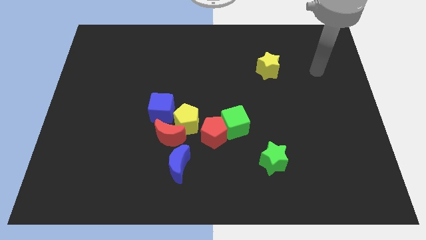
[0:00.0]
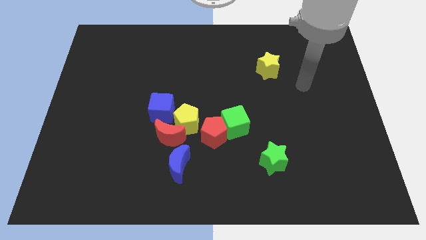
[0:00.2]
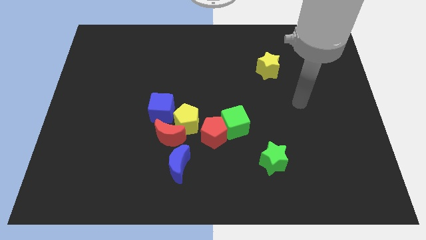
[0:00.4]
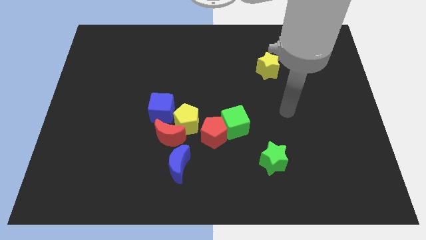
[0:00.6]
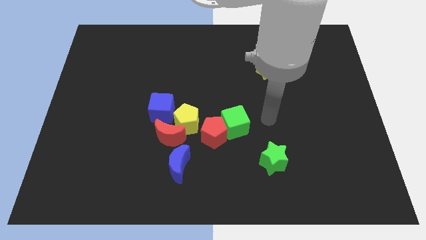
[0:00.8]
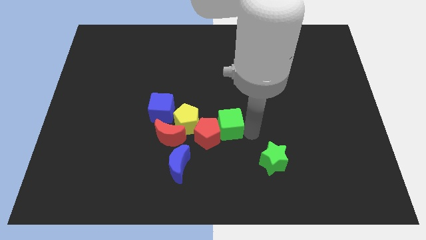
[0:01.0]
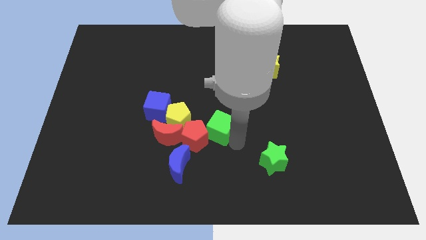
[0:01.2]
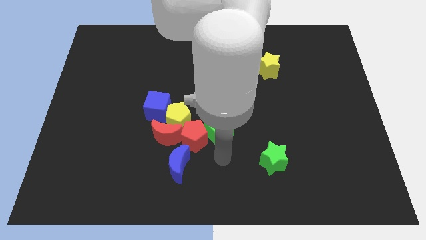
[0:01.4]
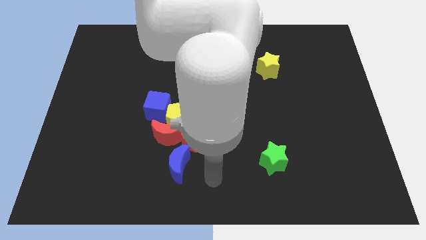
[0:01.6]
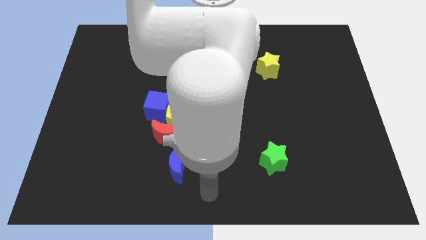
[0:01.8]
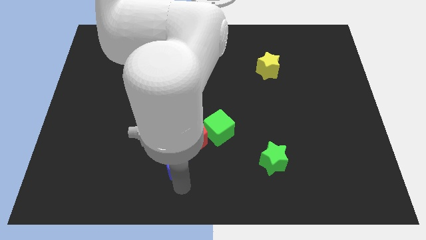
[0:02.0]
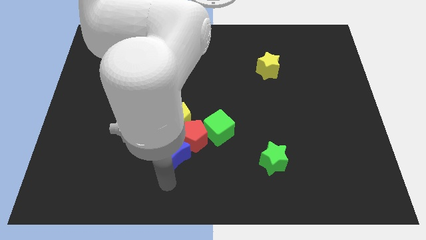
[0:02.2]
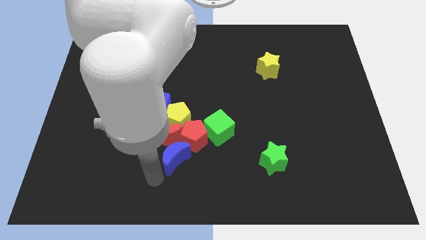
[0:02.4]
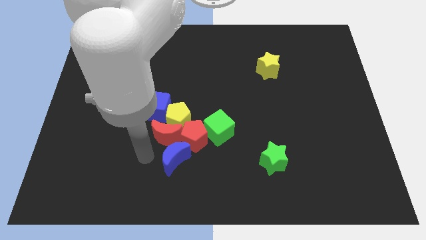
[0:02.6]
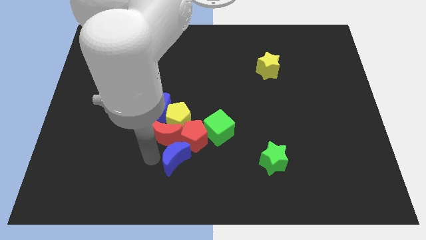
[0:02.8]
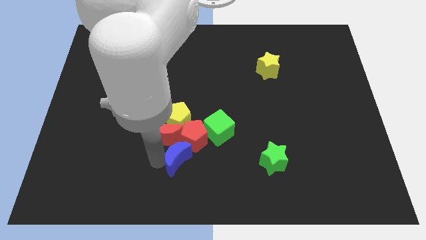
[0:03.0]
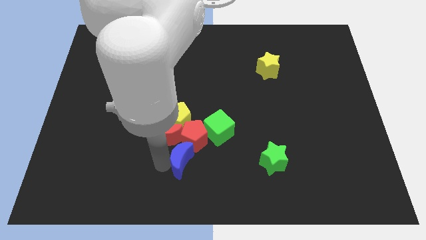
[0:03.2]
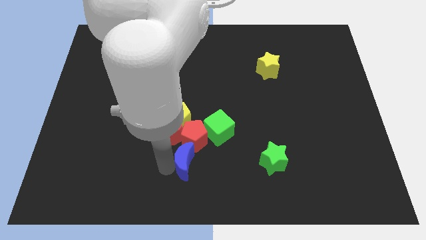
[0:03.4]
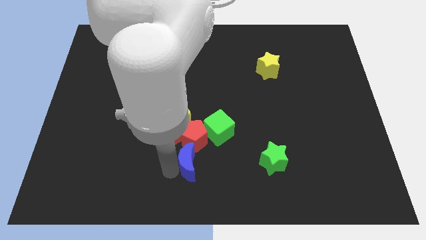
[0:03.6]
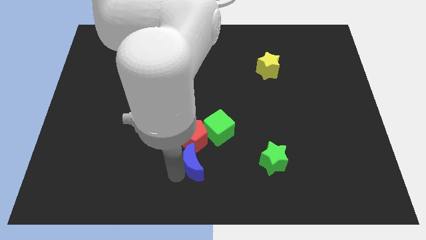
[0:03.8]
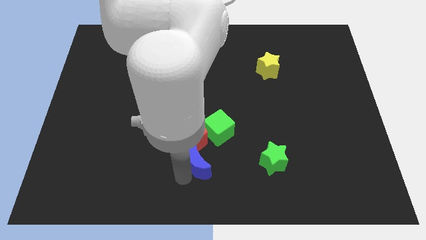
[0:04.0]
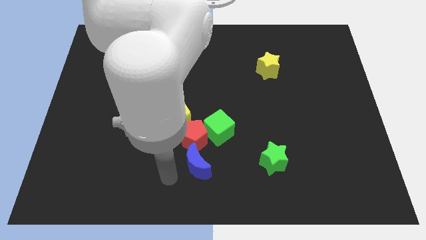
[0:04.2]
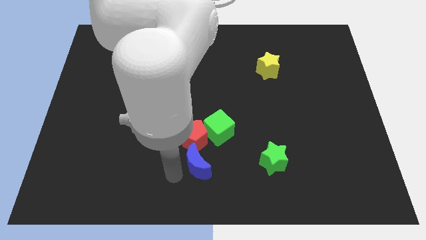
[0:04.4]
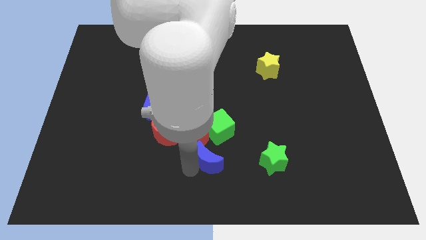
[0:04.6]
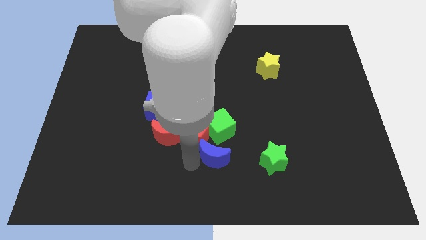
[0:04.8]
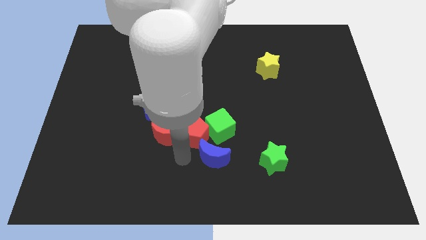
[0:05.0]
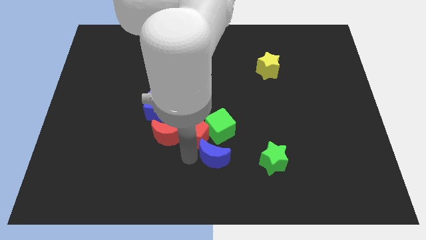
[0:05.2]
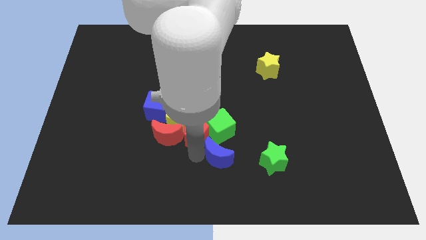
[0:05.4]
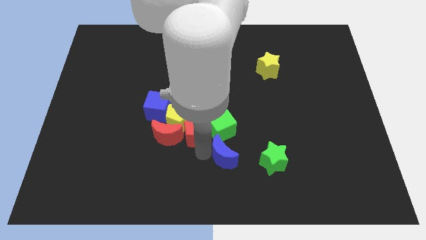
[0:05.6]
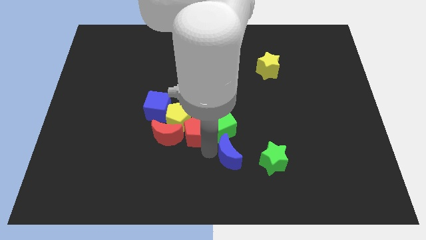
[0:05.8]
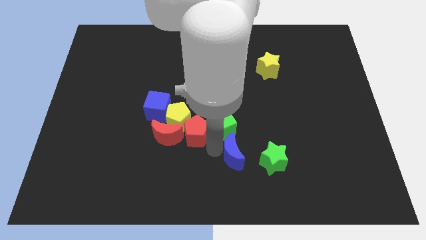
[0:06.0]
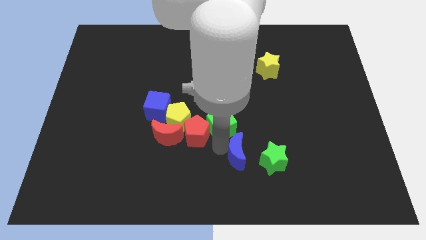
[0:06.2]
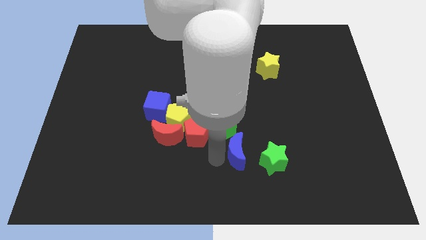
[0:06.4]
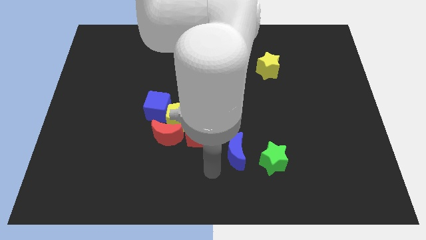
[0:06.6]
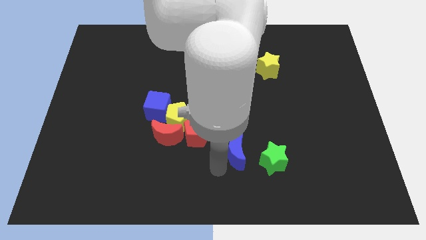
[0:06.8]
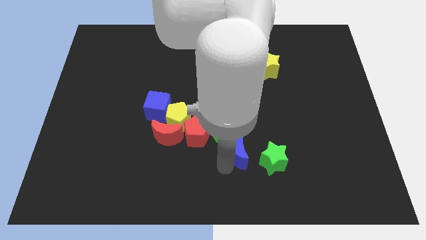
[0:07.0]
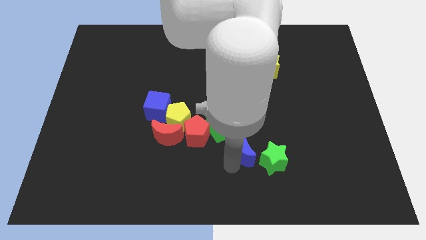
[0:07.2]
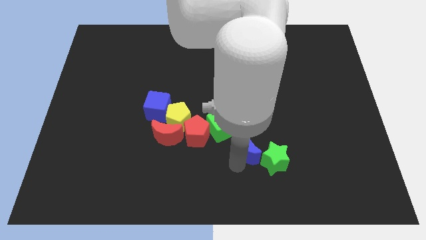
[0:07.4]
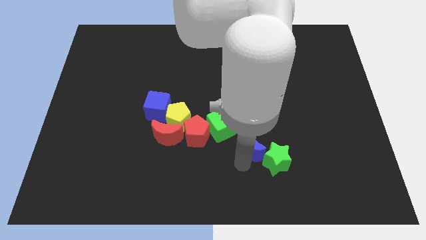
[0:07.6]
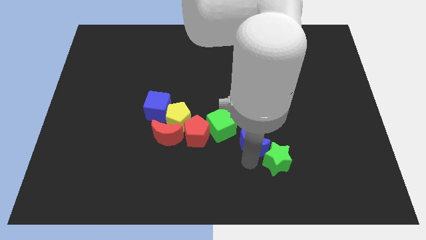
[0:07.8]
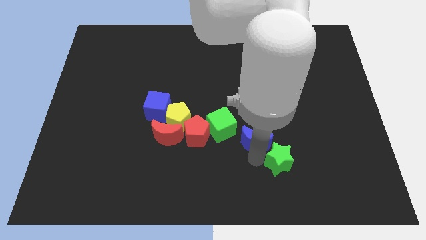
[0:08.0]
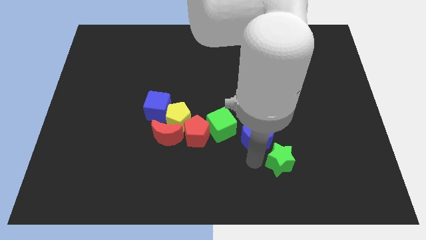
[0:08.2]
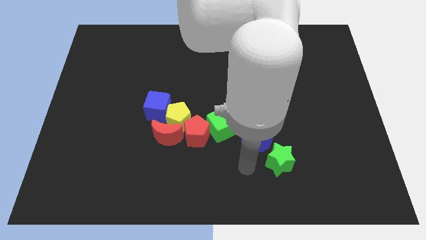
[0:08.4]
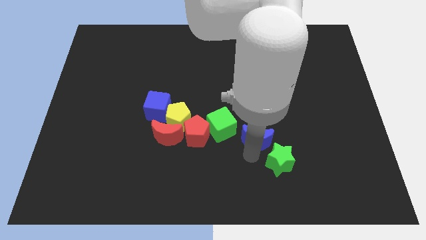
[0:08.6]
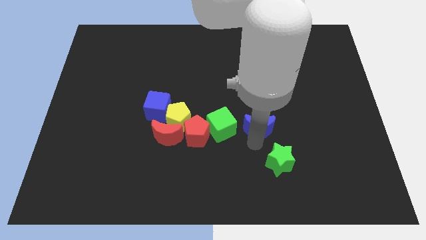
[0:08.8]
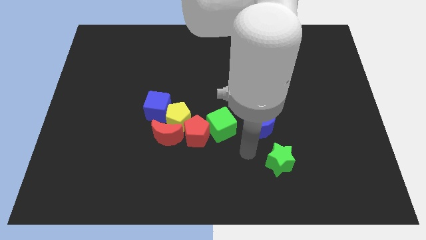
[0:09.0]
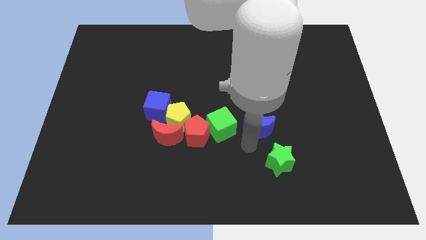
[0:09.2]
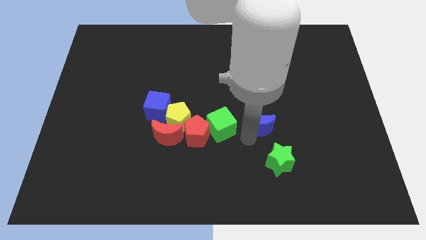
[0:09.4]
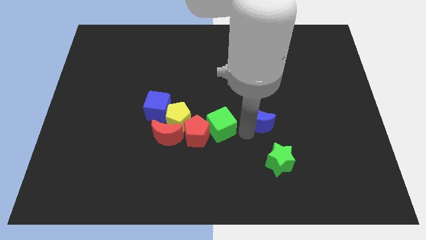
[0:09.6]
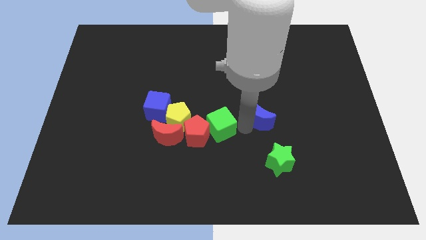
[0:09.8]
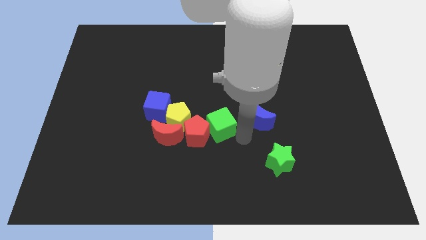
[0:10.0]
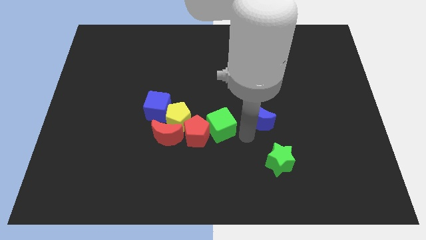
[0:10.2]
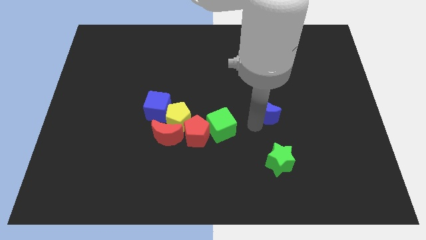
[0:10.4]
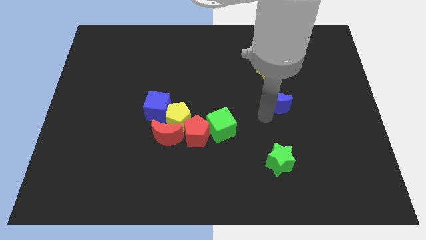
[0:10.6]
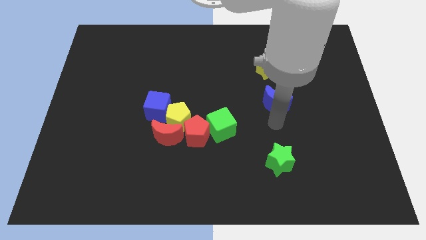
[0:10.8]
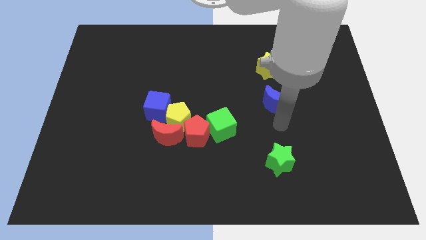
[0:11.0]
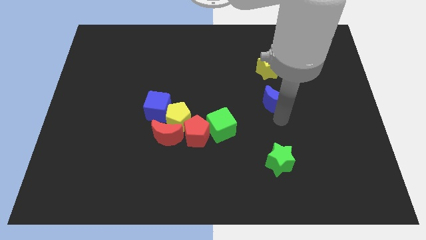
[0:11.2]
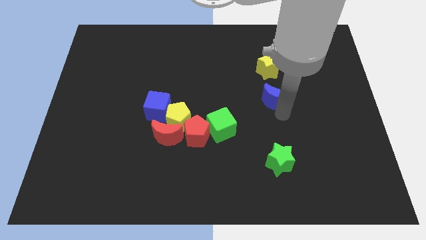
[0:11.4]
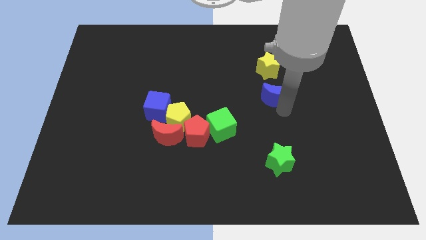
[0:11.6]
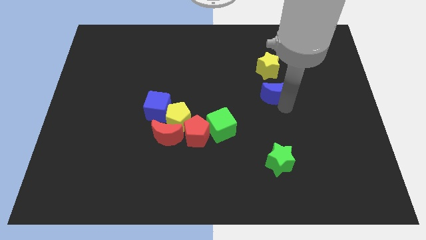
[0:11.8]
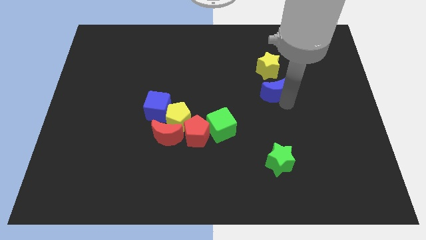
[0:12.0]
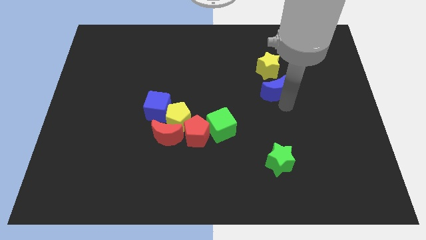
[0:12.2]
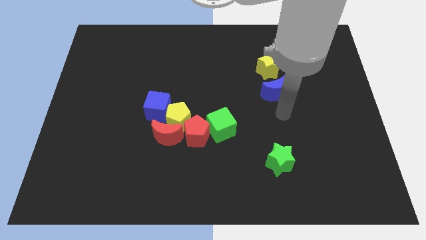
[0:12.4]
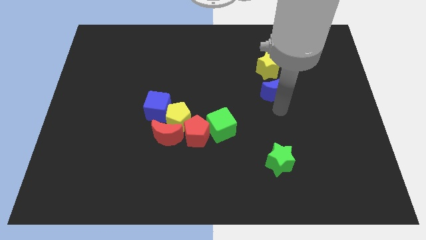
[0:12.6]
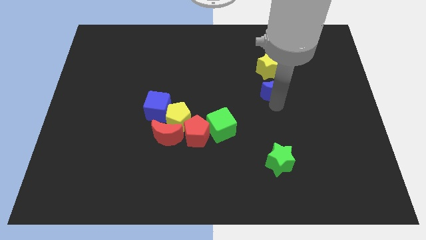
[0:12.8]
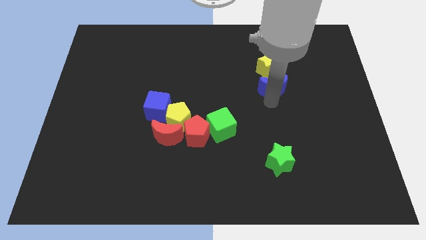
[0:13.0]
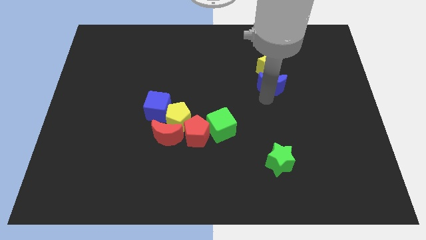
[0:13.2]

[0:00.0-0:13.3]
put the blue moon close to the yellow star
